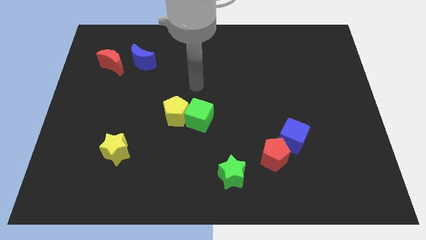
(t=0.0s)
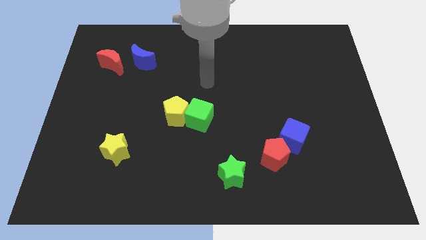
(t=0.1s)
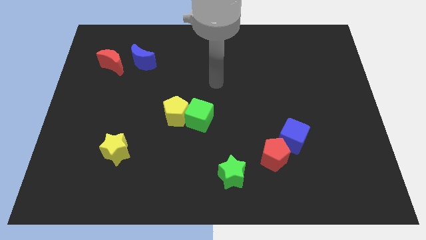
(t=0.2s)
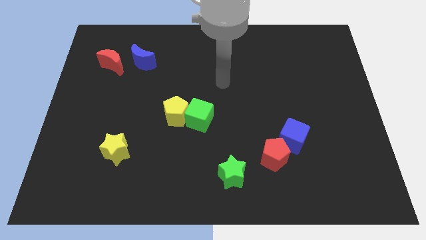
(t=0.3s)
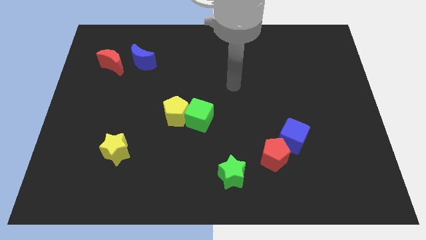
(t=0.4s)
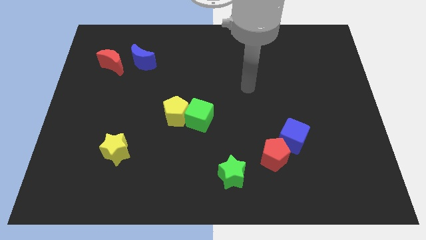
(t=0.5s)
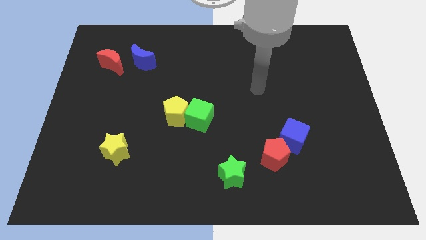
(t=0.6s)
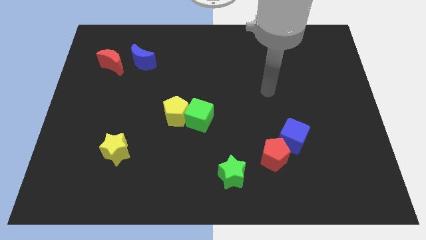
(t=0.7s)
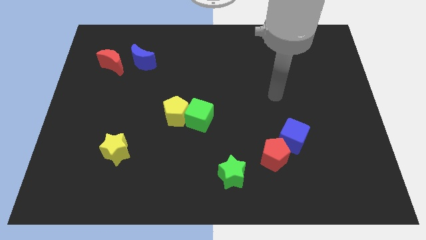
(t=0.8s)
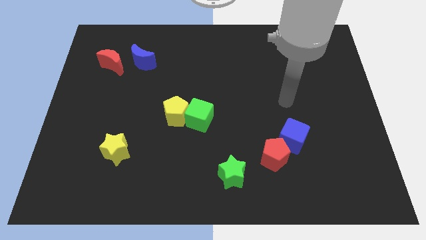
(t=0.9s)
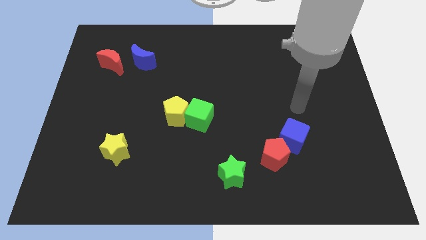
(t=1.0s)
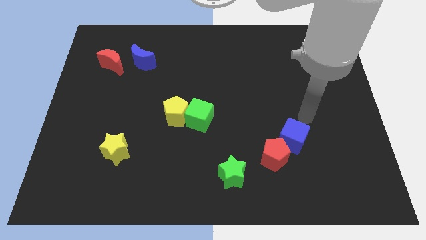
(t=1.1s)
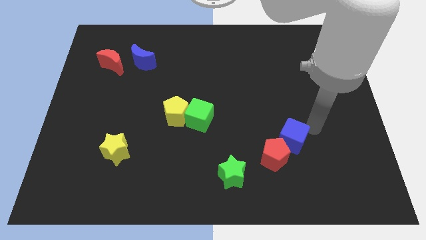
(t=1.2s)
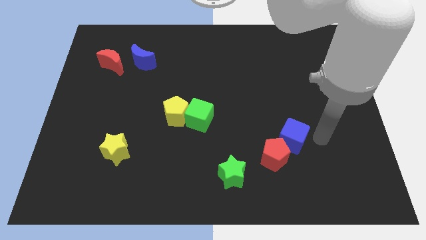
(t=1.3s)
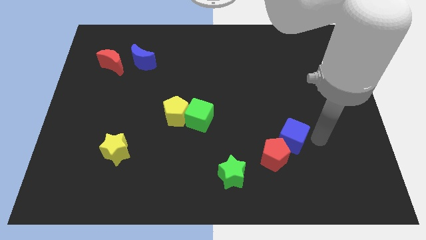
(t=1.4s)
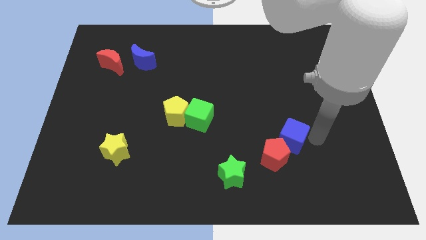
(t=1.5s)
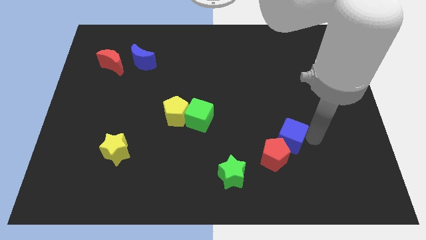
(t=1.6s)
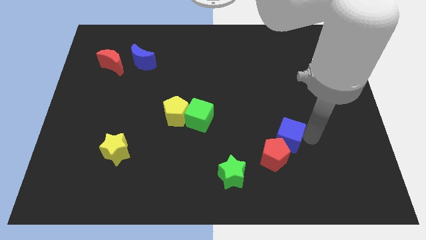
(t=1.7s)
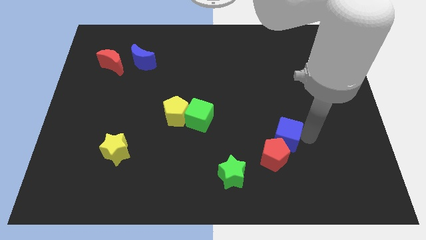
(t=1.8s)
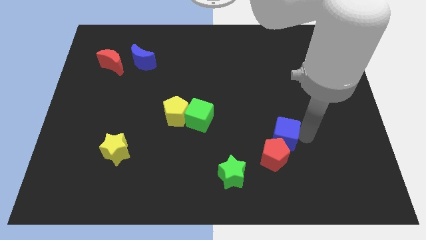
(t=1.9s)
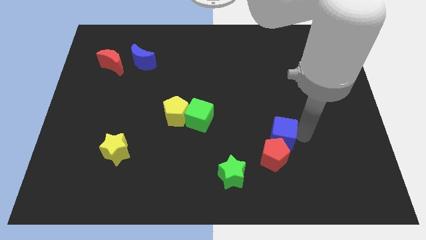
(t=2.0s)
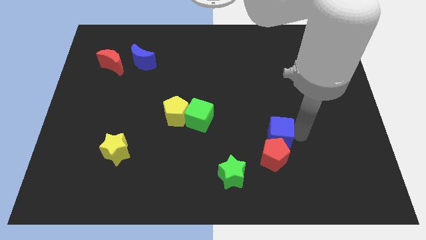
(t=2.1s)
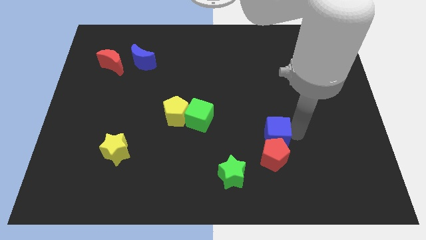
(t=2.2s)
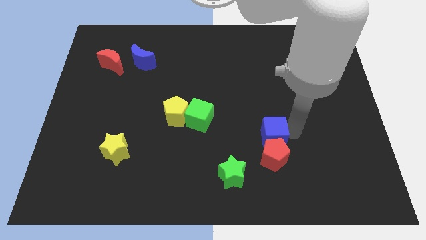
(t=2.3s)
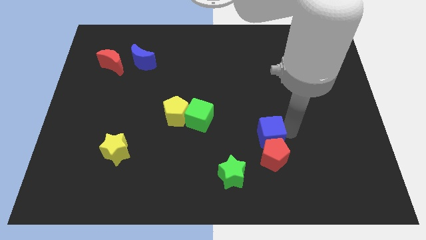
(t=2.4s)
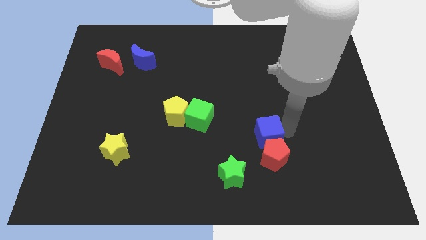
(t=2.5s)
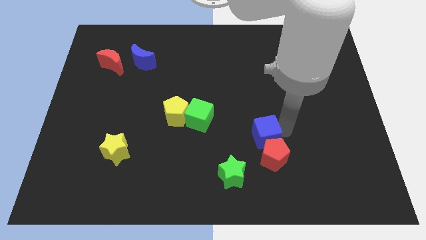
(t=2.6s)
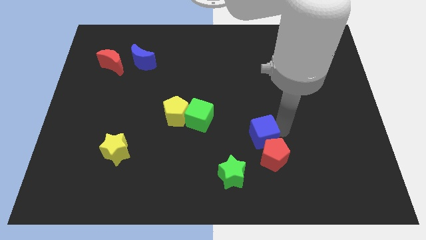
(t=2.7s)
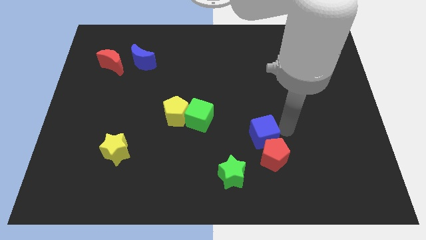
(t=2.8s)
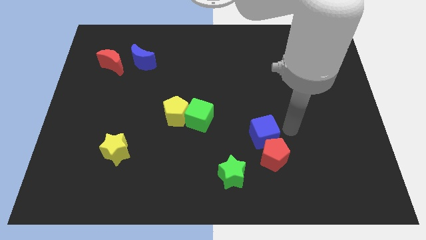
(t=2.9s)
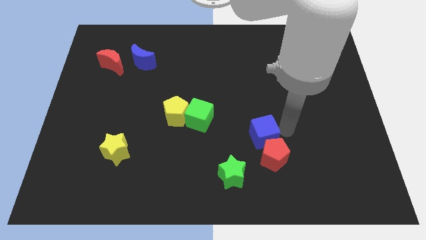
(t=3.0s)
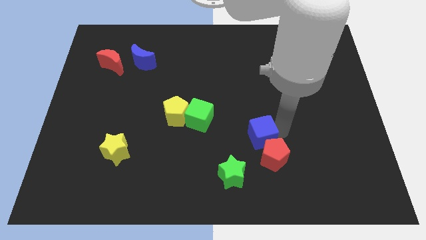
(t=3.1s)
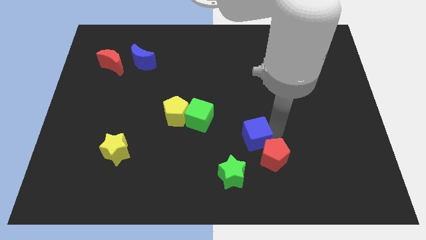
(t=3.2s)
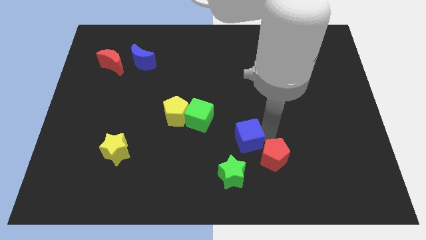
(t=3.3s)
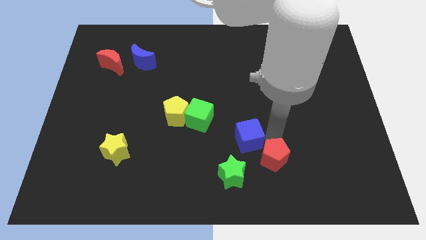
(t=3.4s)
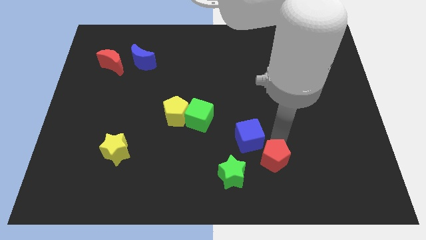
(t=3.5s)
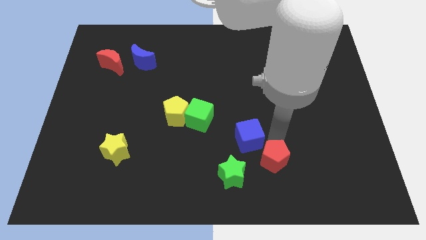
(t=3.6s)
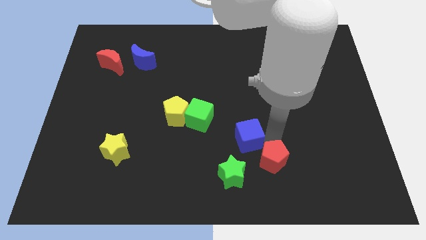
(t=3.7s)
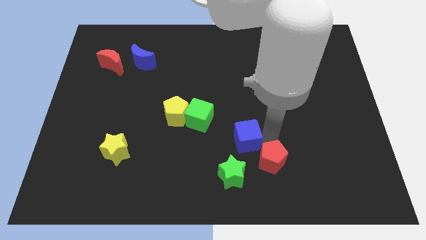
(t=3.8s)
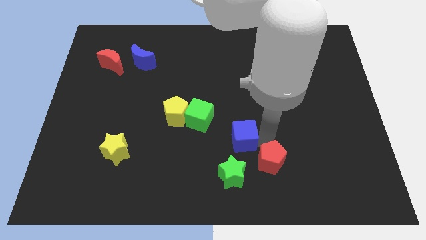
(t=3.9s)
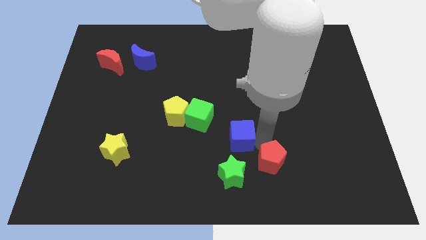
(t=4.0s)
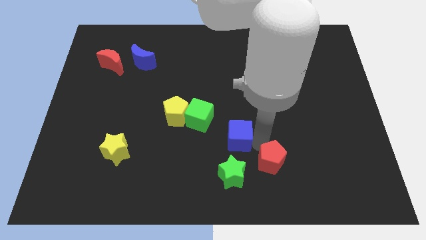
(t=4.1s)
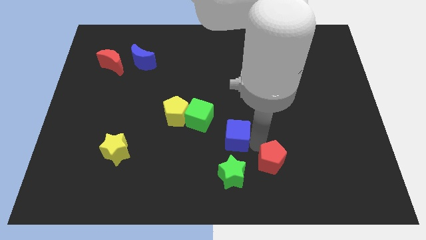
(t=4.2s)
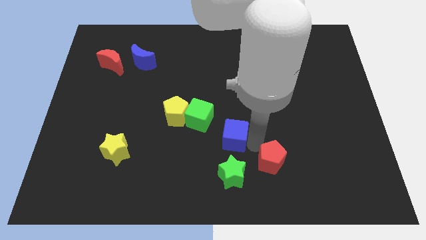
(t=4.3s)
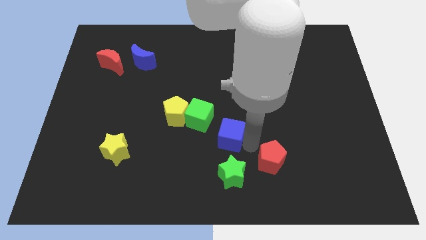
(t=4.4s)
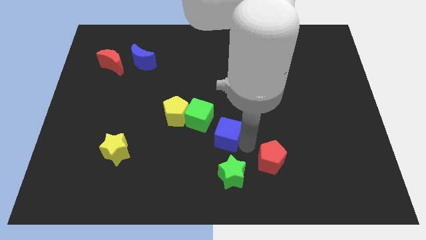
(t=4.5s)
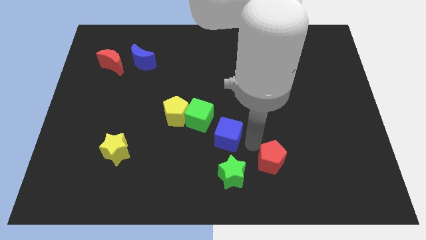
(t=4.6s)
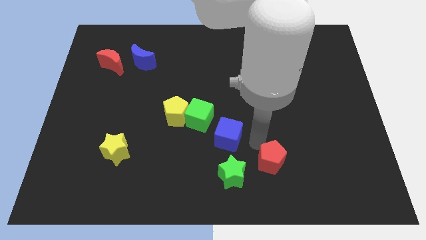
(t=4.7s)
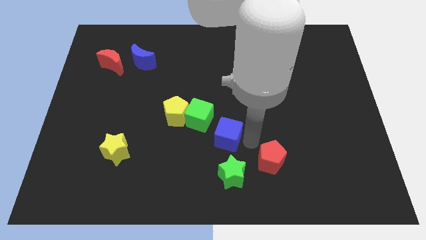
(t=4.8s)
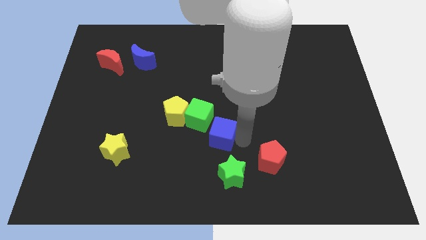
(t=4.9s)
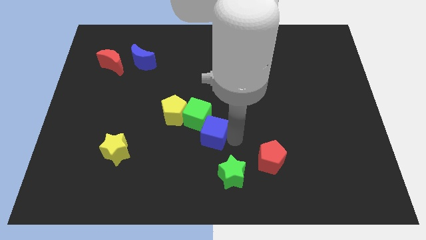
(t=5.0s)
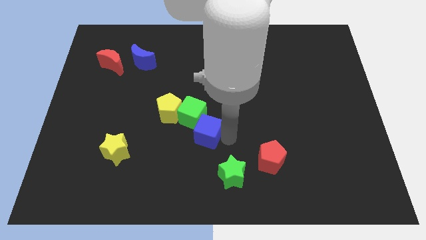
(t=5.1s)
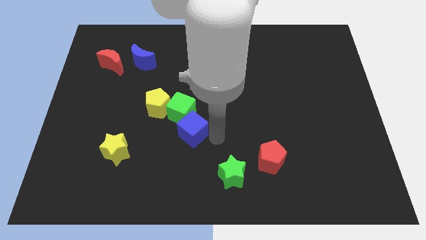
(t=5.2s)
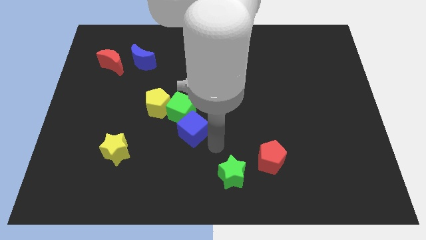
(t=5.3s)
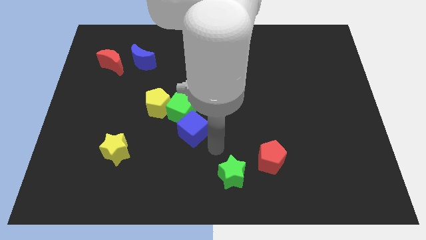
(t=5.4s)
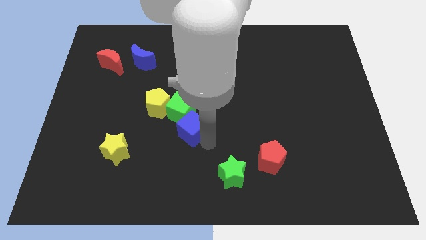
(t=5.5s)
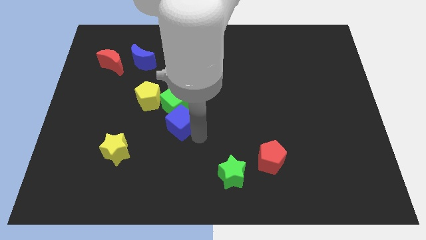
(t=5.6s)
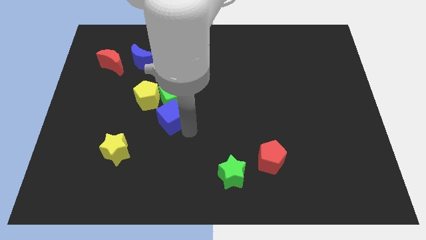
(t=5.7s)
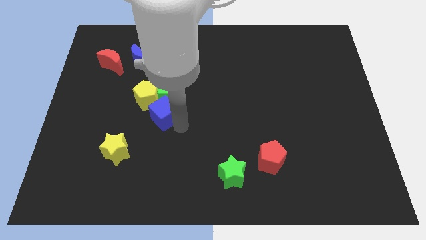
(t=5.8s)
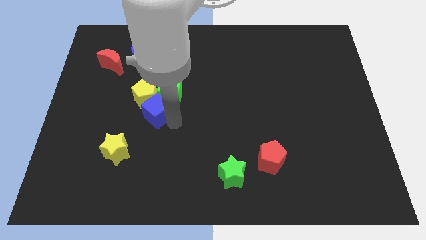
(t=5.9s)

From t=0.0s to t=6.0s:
move the blue cube next to the yellow pentagon
